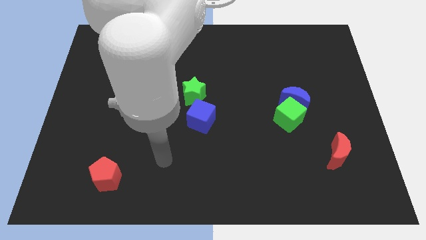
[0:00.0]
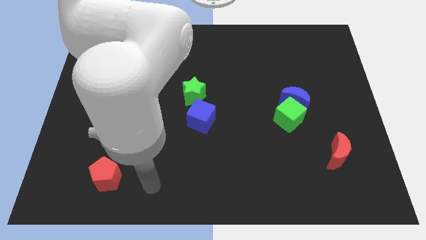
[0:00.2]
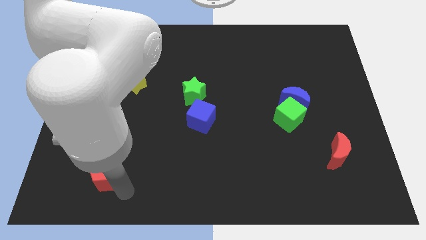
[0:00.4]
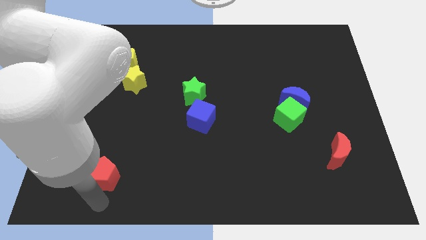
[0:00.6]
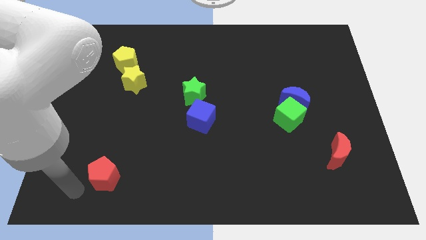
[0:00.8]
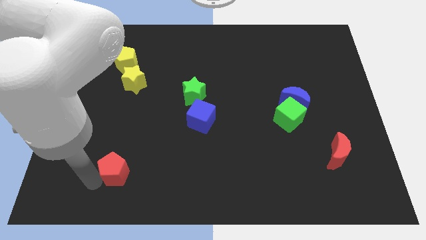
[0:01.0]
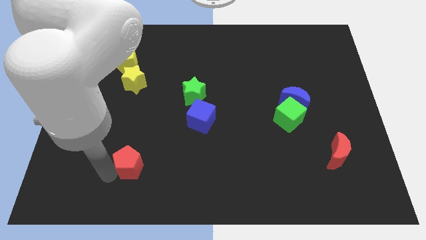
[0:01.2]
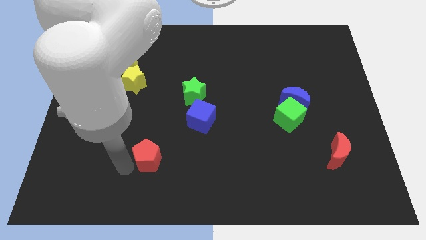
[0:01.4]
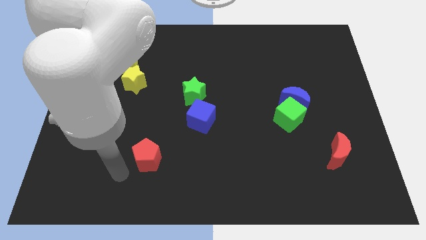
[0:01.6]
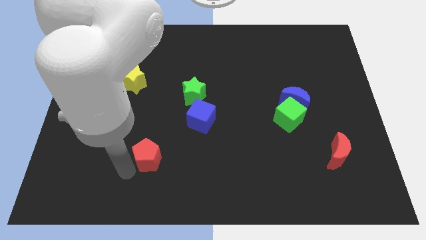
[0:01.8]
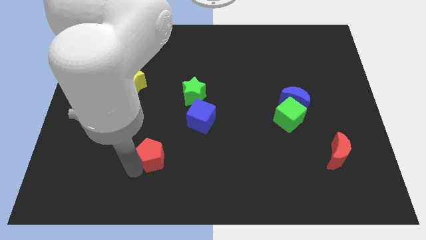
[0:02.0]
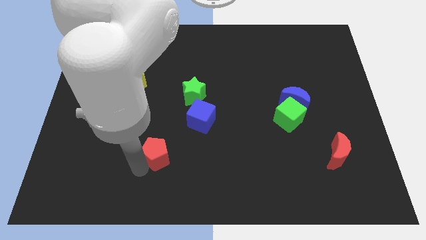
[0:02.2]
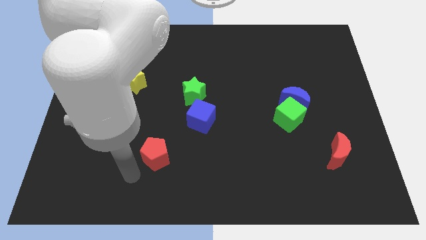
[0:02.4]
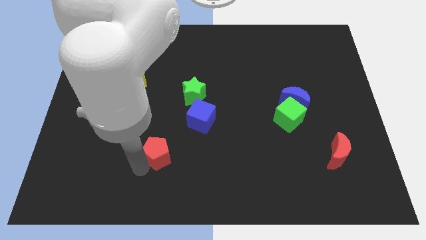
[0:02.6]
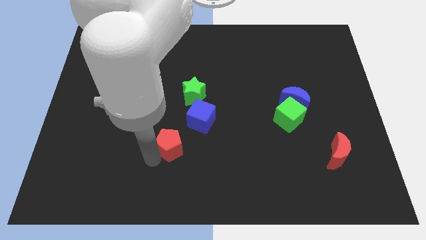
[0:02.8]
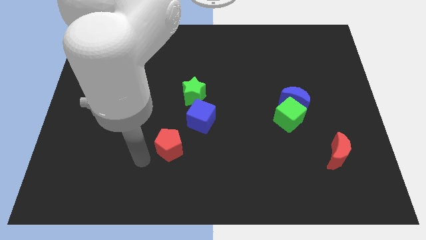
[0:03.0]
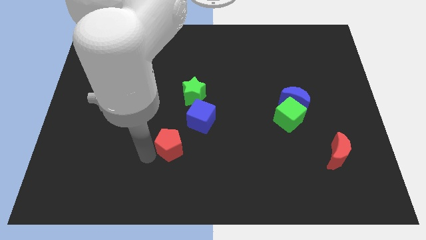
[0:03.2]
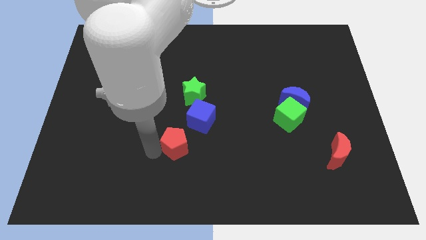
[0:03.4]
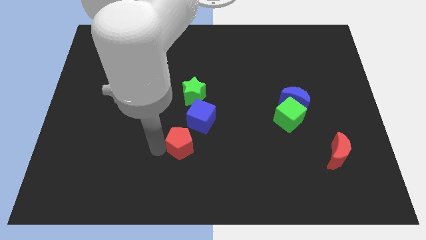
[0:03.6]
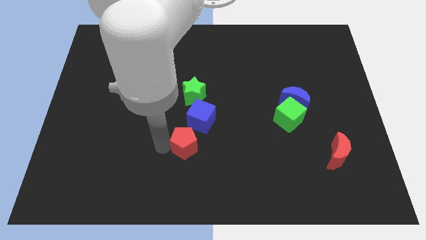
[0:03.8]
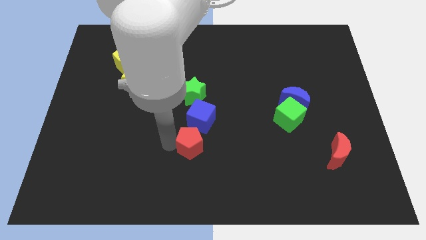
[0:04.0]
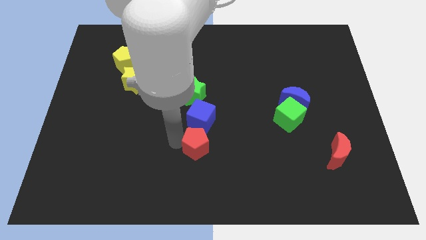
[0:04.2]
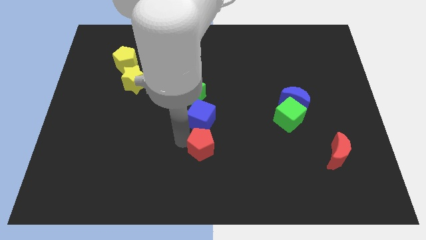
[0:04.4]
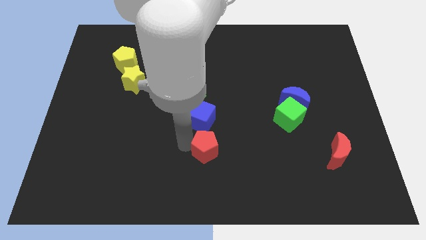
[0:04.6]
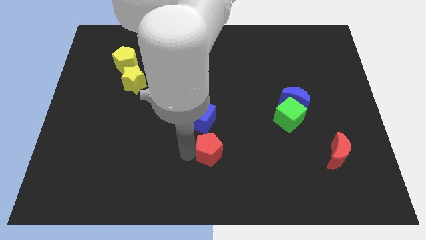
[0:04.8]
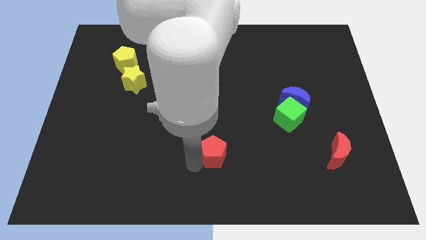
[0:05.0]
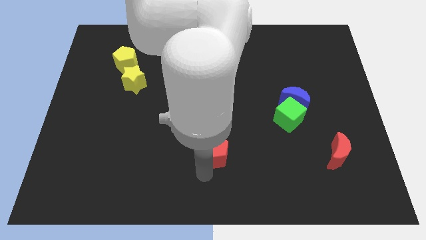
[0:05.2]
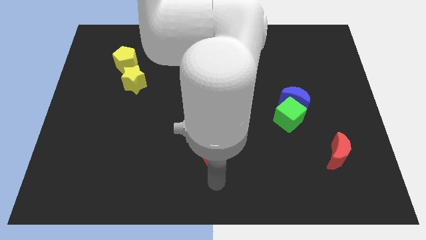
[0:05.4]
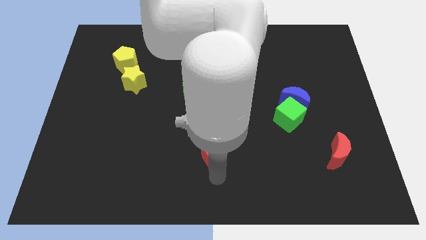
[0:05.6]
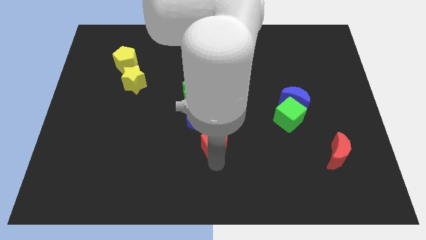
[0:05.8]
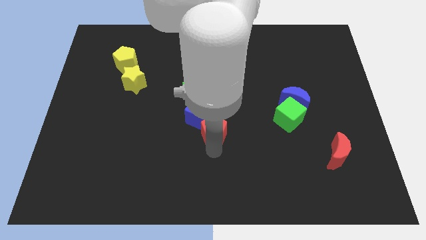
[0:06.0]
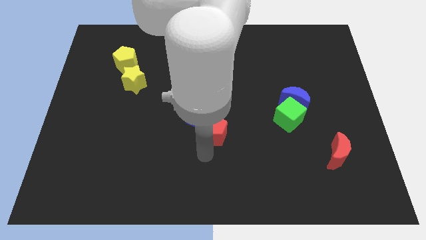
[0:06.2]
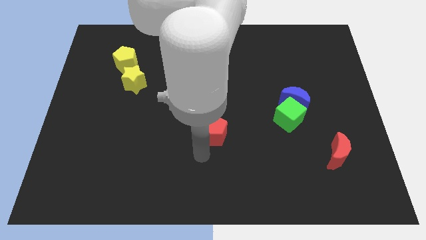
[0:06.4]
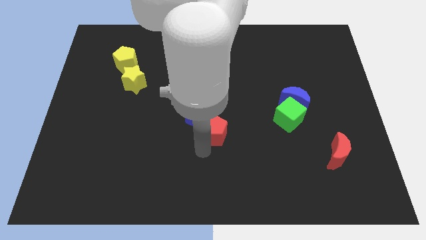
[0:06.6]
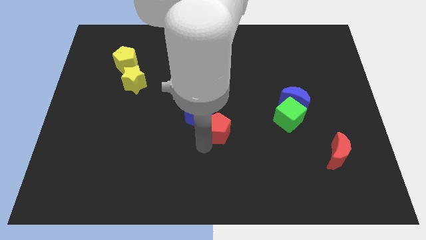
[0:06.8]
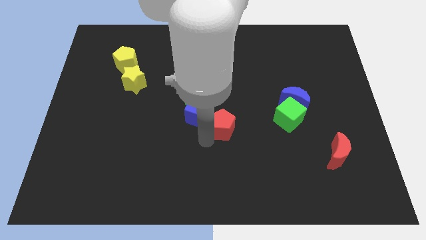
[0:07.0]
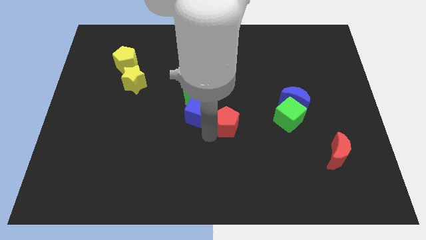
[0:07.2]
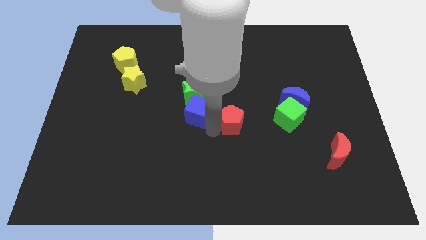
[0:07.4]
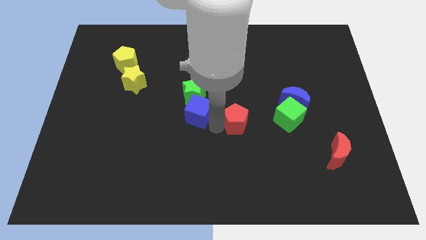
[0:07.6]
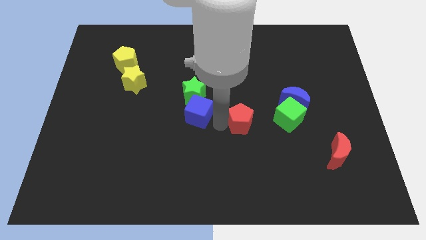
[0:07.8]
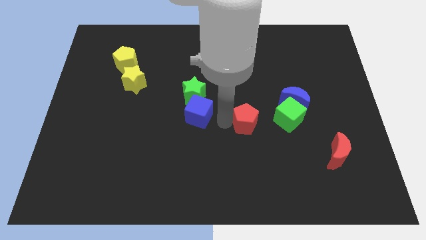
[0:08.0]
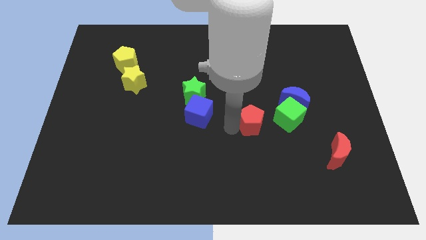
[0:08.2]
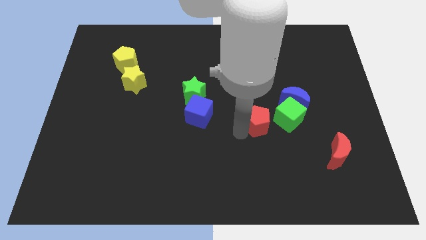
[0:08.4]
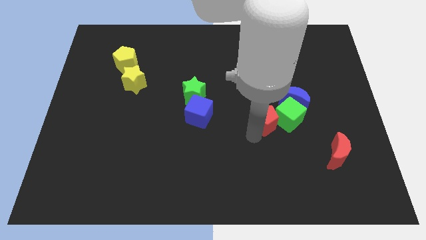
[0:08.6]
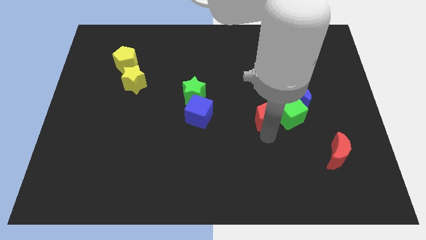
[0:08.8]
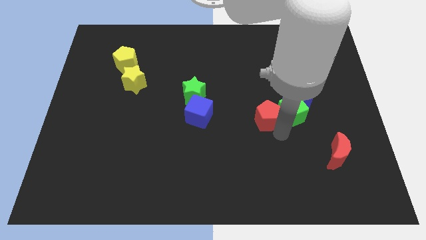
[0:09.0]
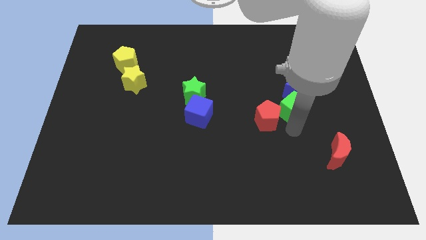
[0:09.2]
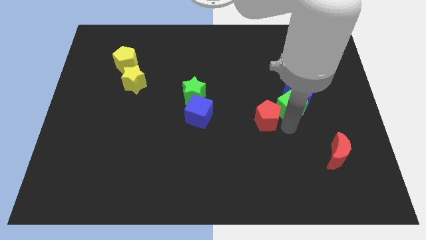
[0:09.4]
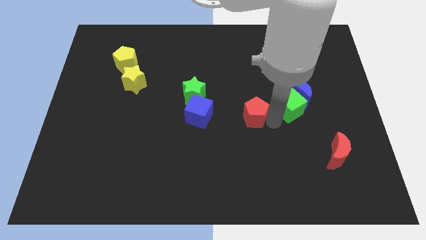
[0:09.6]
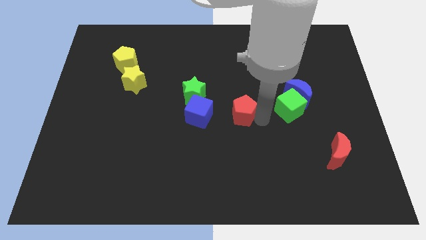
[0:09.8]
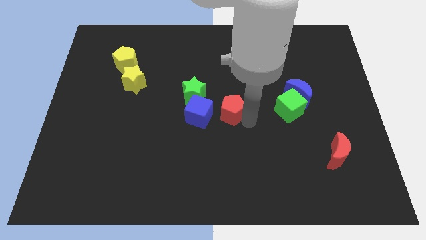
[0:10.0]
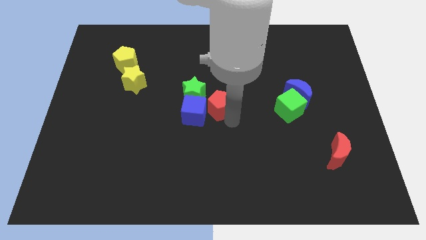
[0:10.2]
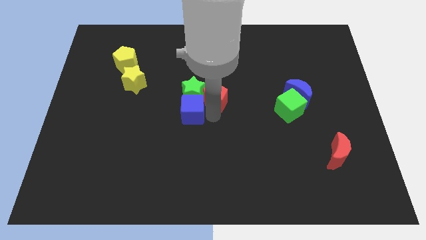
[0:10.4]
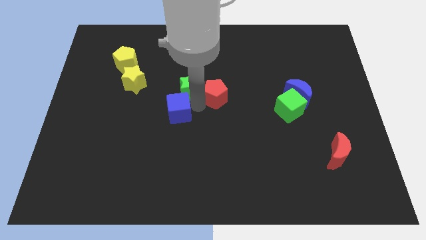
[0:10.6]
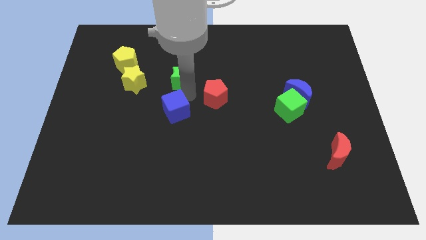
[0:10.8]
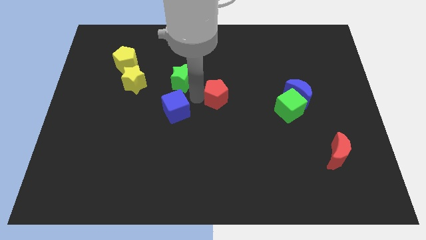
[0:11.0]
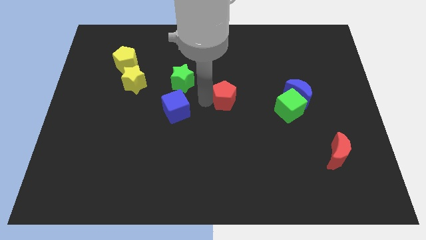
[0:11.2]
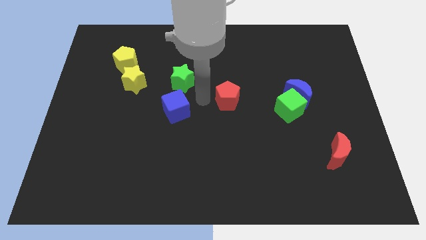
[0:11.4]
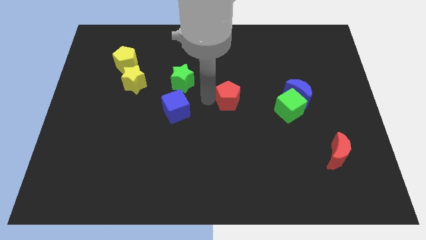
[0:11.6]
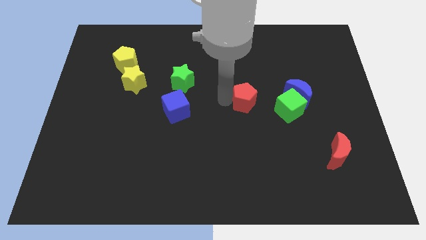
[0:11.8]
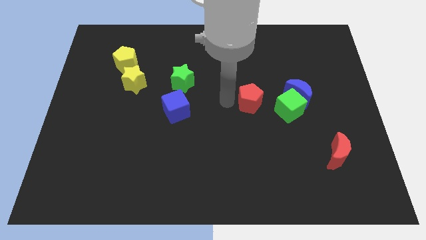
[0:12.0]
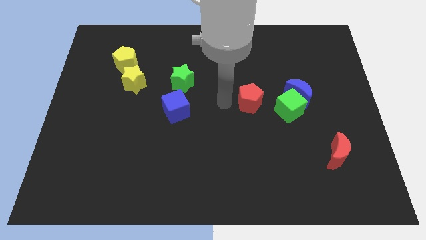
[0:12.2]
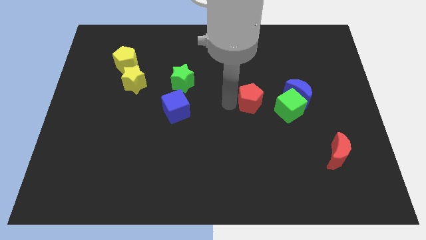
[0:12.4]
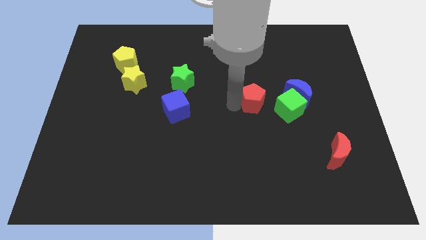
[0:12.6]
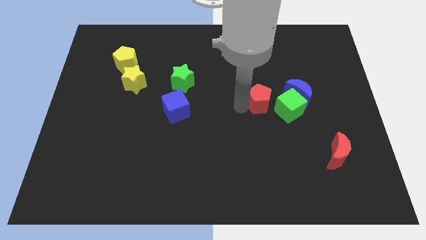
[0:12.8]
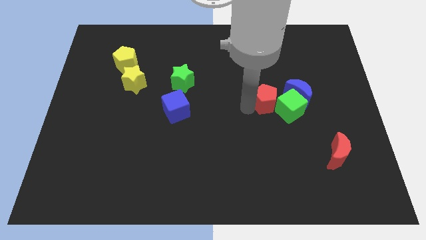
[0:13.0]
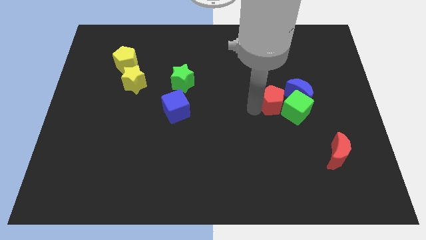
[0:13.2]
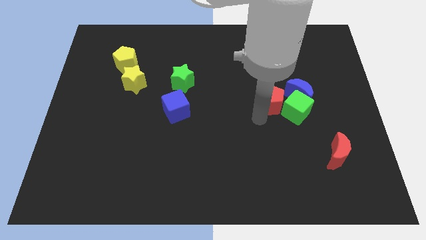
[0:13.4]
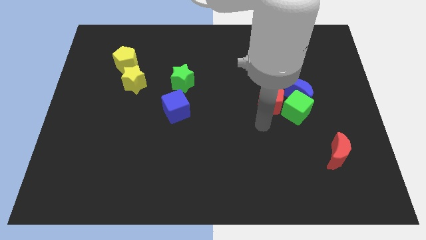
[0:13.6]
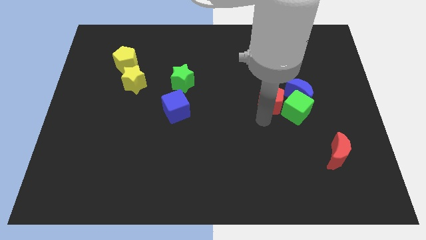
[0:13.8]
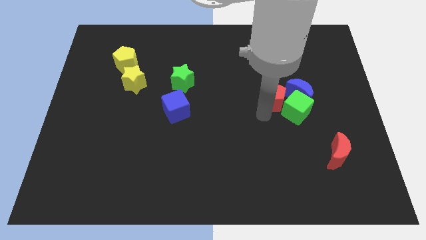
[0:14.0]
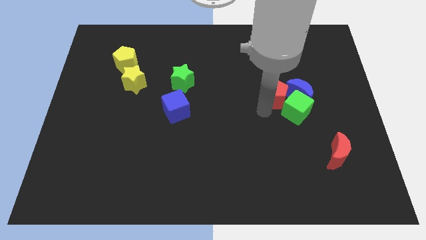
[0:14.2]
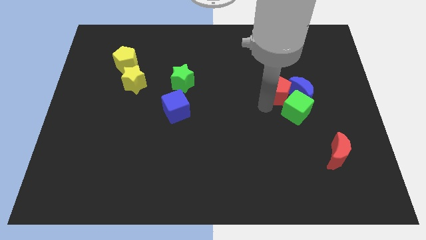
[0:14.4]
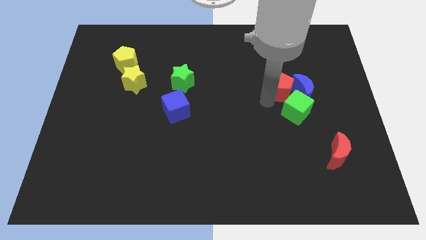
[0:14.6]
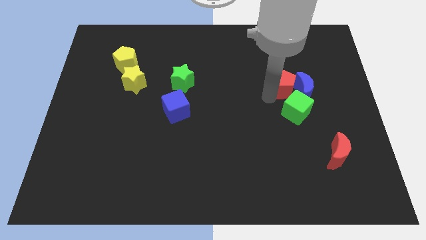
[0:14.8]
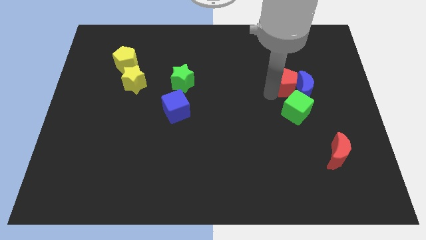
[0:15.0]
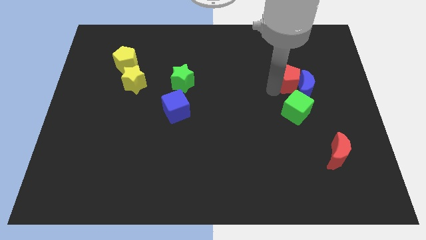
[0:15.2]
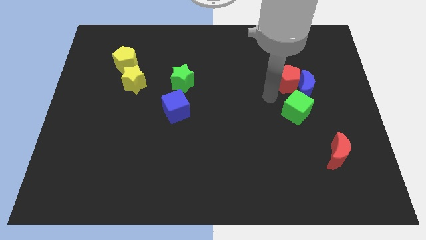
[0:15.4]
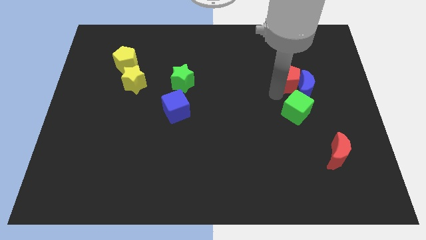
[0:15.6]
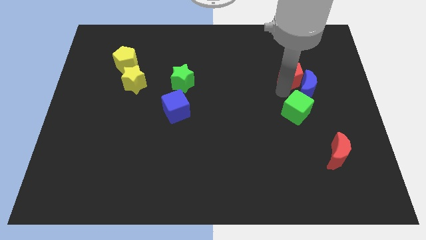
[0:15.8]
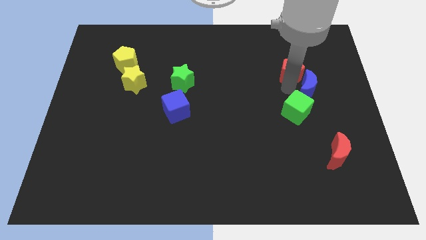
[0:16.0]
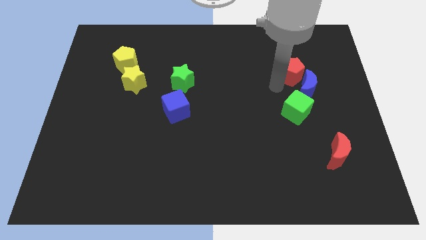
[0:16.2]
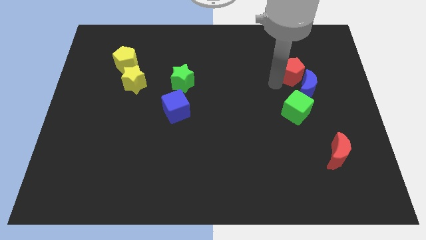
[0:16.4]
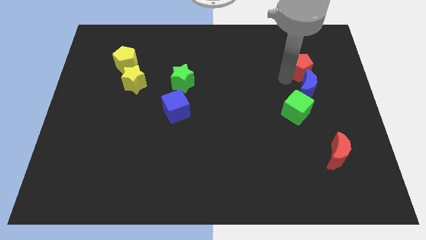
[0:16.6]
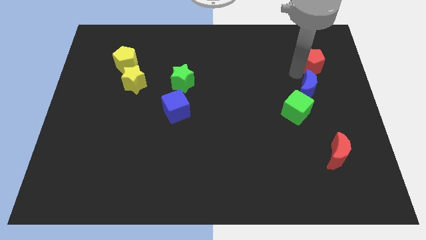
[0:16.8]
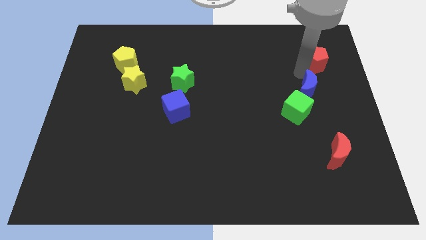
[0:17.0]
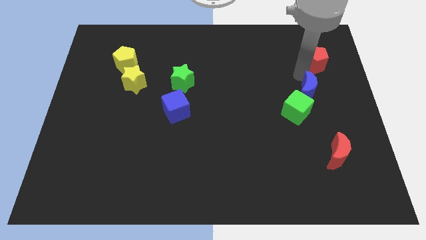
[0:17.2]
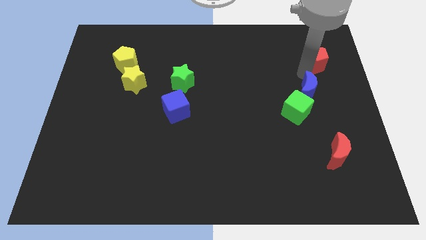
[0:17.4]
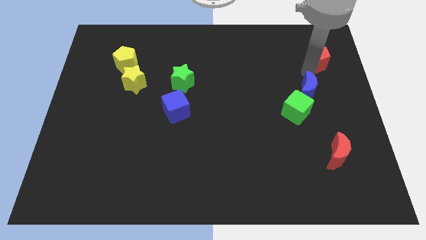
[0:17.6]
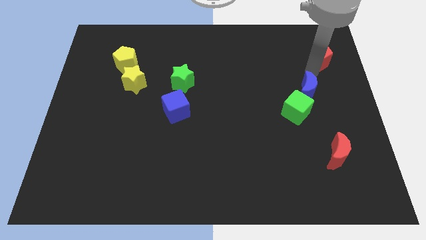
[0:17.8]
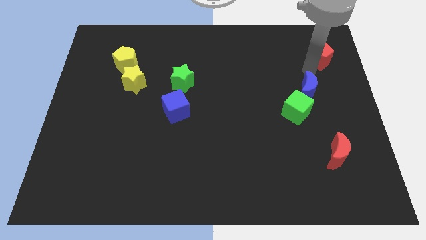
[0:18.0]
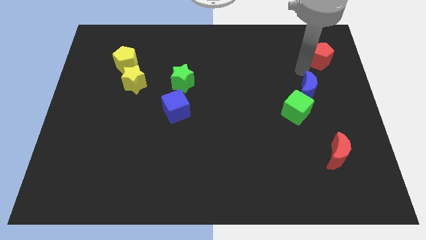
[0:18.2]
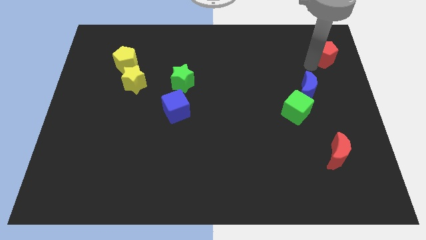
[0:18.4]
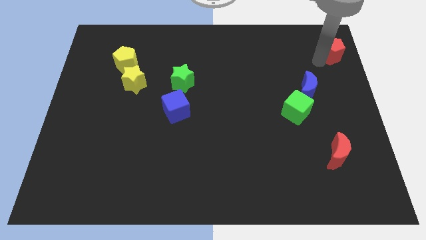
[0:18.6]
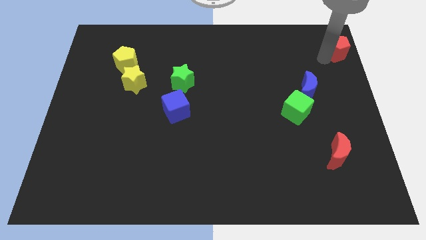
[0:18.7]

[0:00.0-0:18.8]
move the red pentagon to the upper right corner
